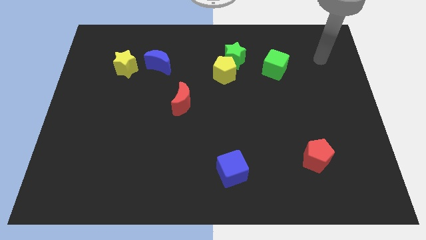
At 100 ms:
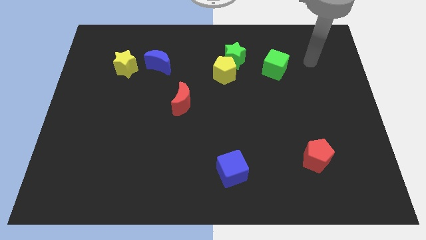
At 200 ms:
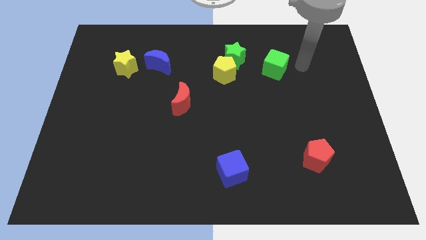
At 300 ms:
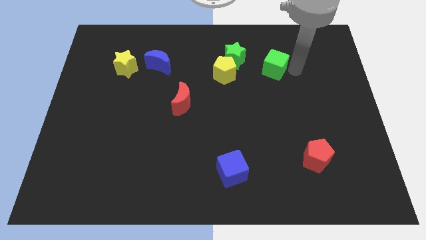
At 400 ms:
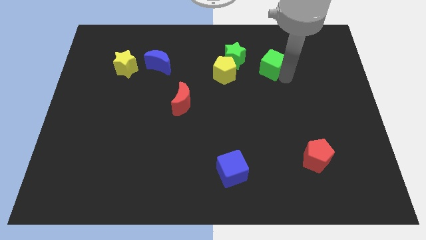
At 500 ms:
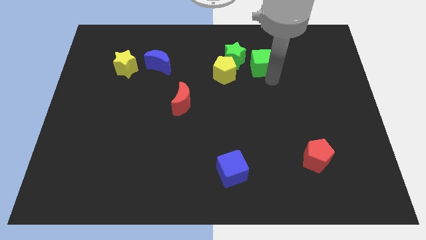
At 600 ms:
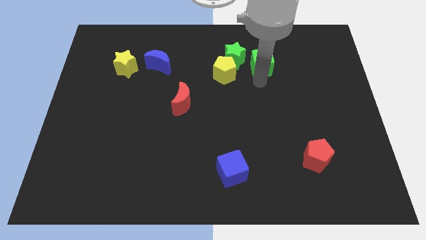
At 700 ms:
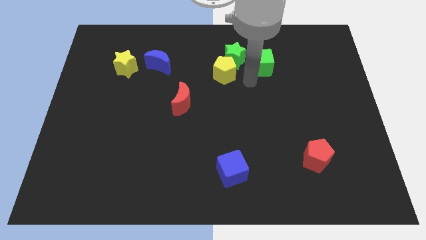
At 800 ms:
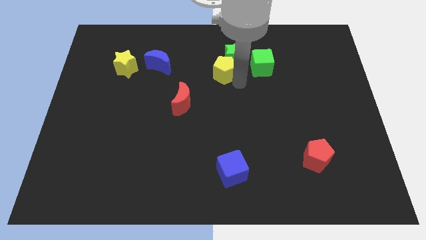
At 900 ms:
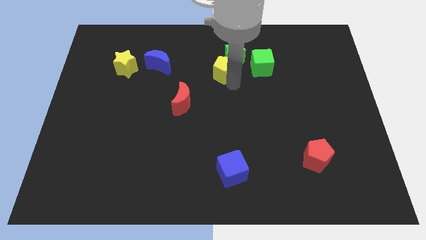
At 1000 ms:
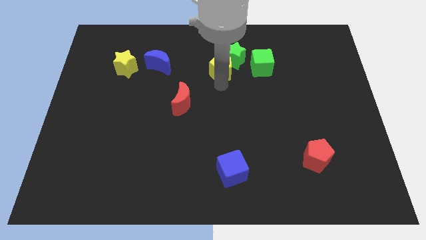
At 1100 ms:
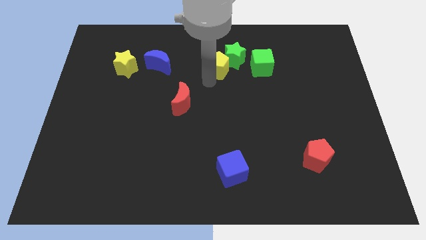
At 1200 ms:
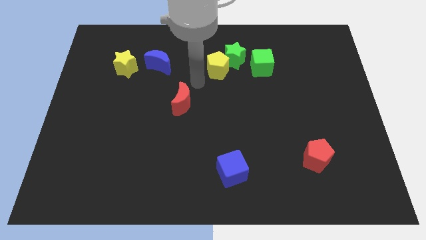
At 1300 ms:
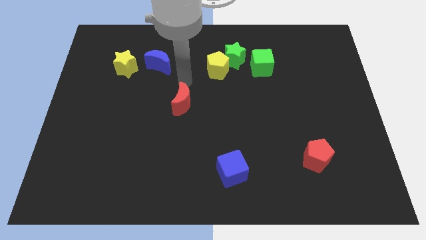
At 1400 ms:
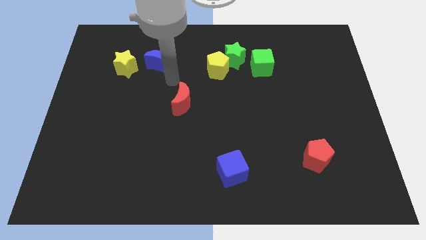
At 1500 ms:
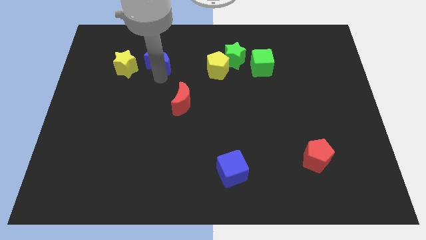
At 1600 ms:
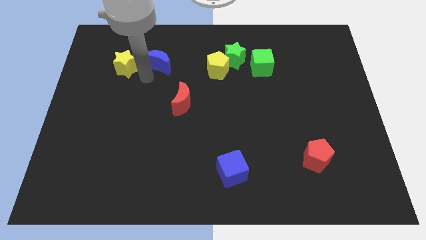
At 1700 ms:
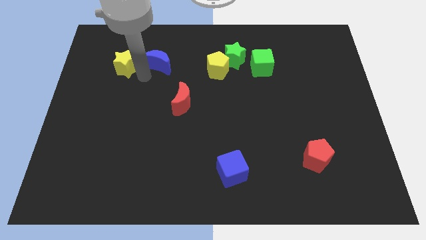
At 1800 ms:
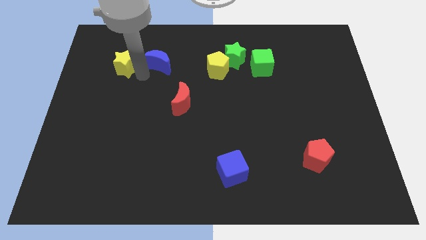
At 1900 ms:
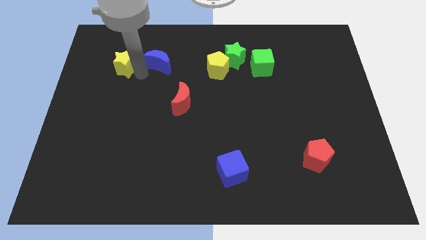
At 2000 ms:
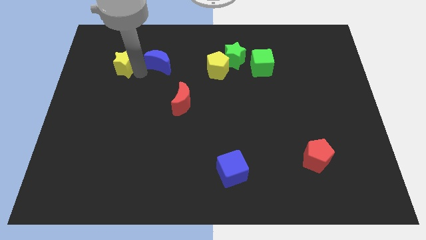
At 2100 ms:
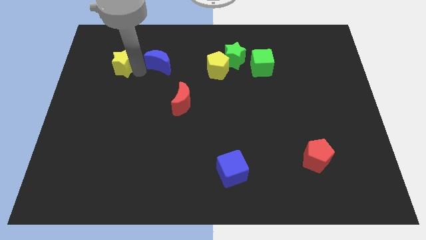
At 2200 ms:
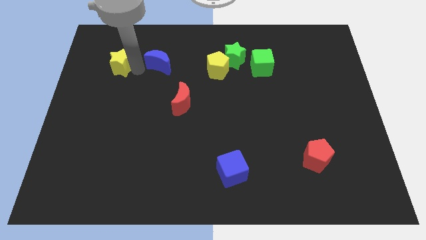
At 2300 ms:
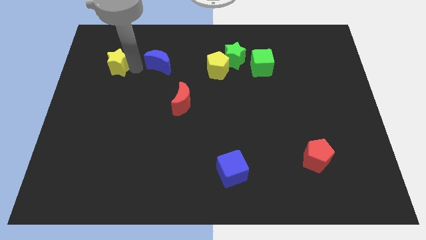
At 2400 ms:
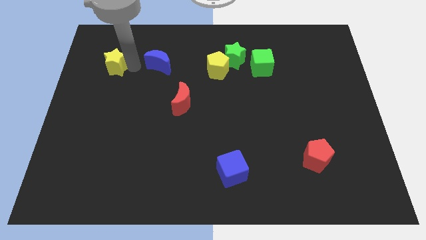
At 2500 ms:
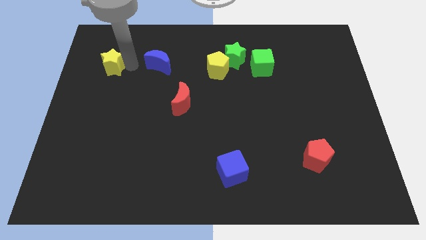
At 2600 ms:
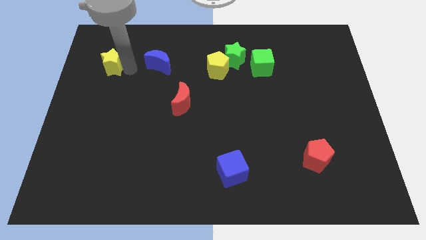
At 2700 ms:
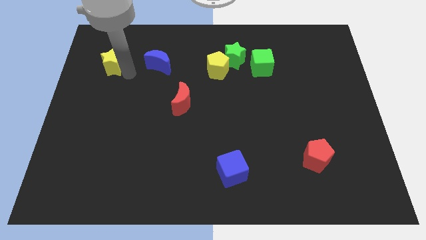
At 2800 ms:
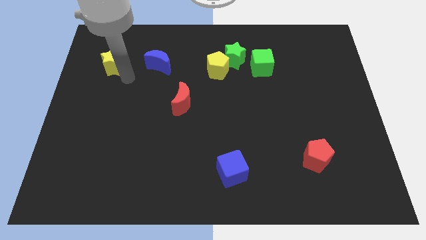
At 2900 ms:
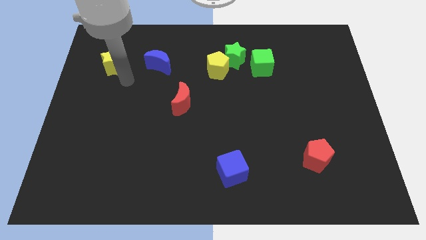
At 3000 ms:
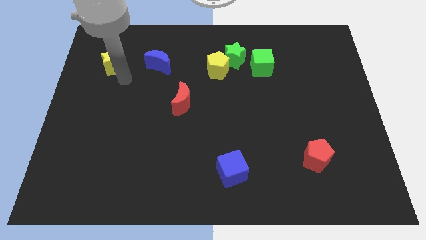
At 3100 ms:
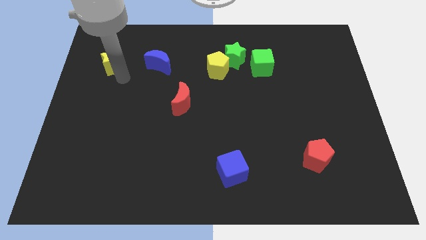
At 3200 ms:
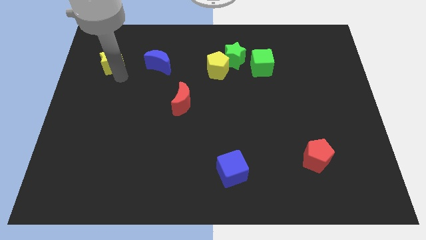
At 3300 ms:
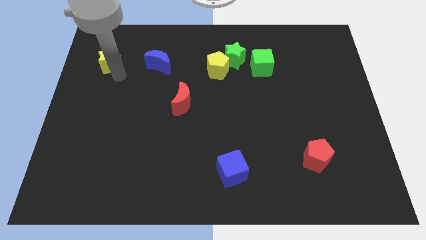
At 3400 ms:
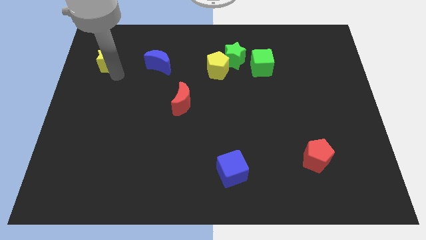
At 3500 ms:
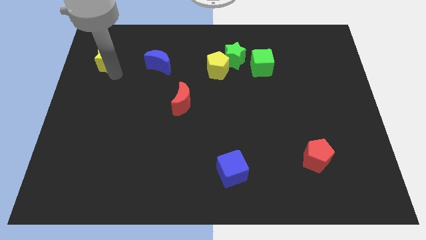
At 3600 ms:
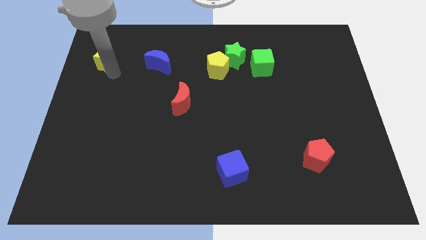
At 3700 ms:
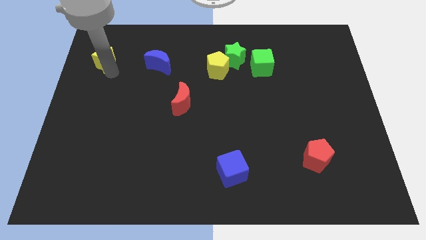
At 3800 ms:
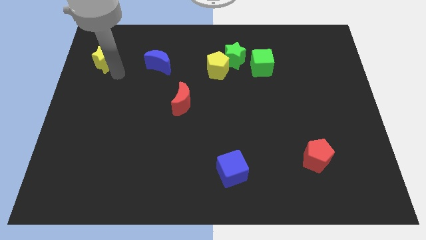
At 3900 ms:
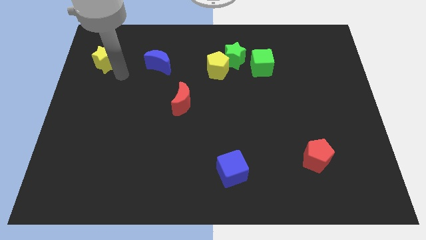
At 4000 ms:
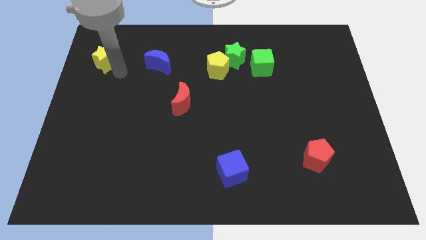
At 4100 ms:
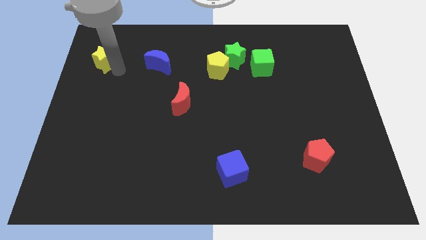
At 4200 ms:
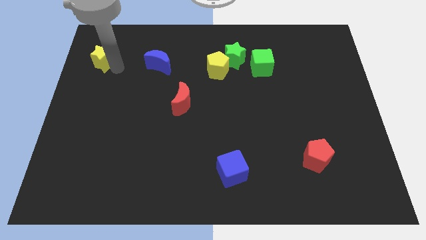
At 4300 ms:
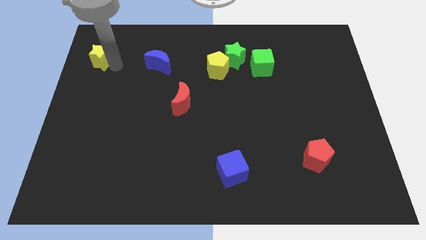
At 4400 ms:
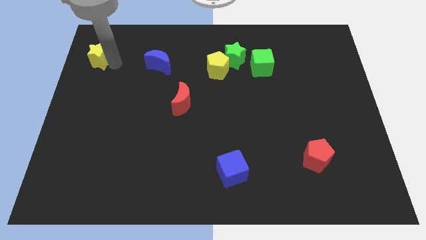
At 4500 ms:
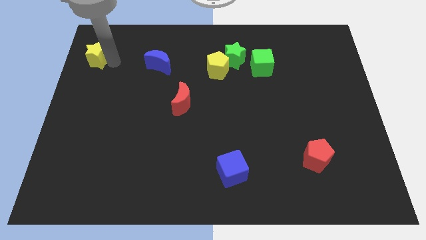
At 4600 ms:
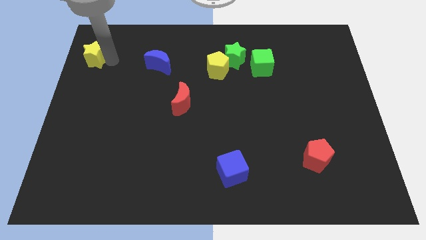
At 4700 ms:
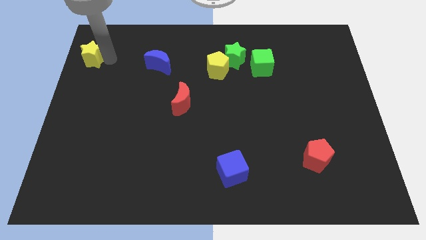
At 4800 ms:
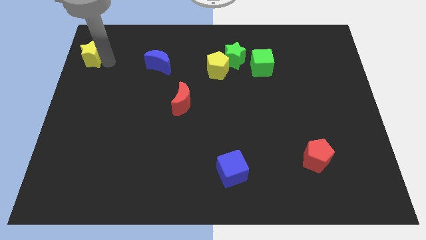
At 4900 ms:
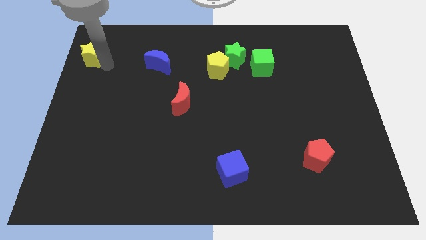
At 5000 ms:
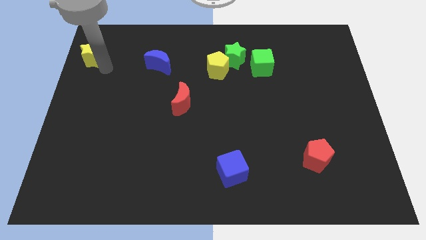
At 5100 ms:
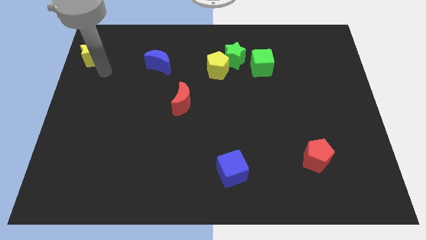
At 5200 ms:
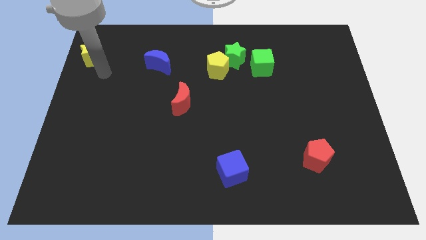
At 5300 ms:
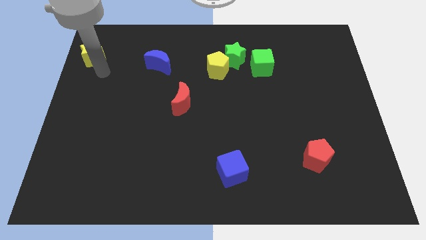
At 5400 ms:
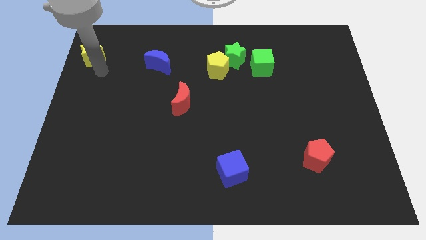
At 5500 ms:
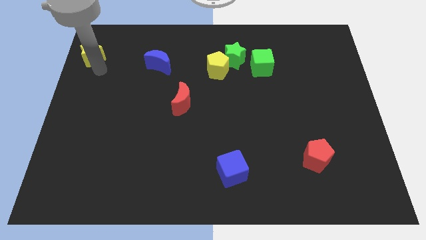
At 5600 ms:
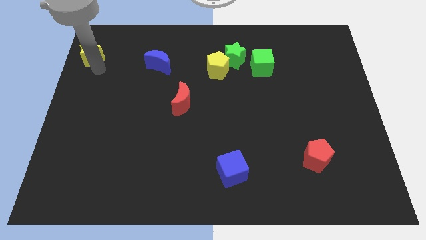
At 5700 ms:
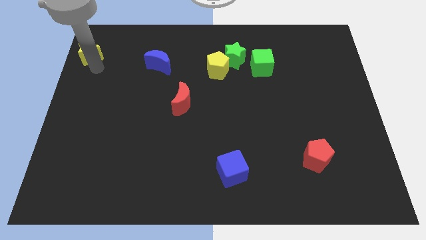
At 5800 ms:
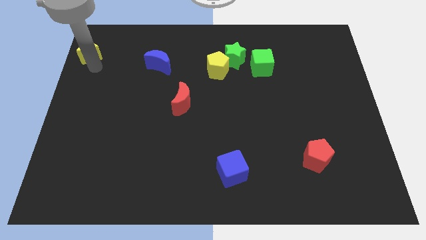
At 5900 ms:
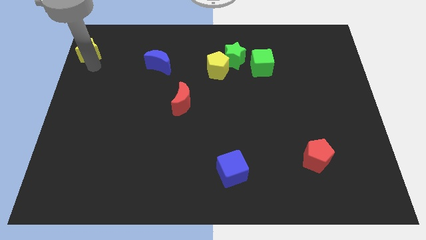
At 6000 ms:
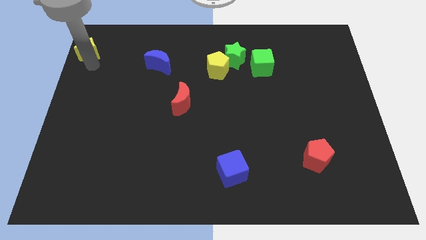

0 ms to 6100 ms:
move the yellow star to the upper left corner
